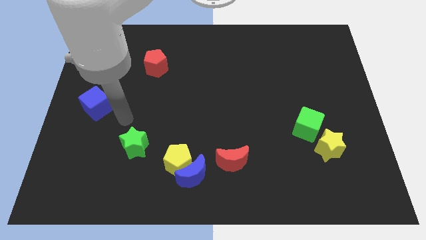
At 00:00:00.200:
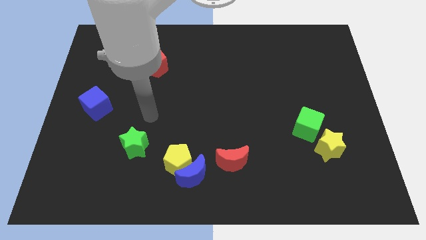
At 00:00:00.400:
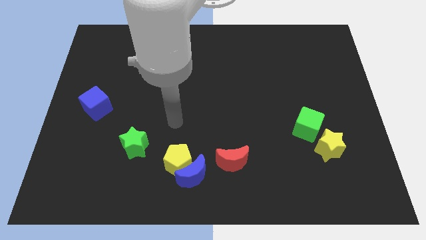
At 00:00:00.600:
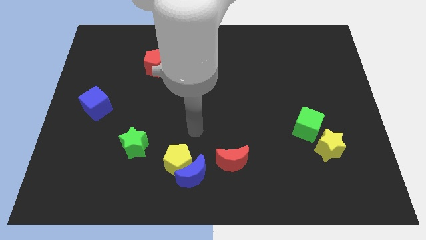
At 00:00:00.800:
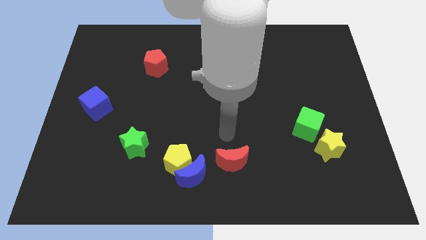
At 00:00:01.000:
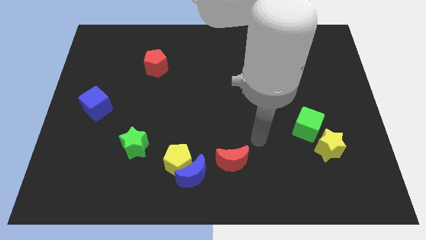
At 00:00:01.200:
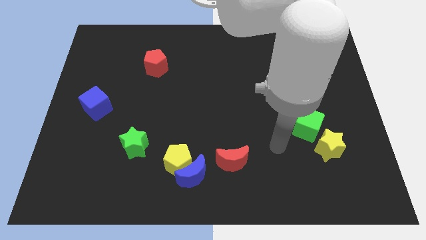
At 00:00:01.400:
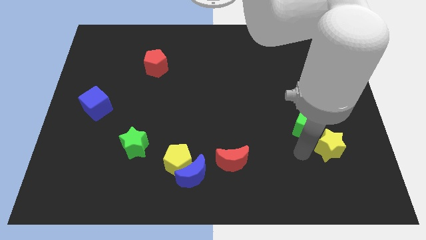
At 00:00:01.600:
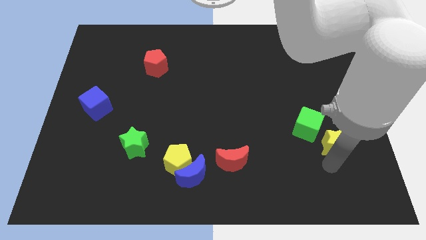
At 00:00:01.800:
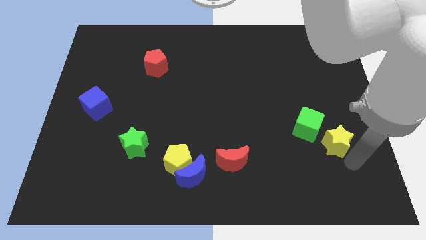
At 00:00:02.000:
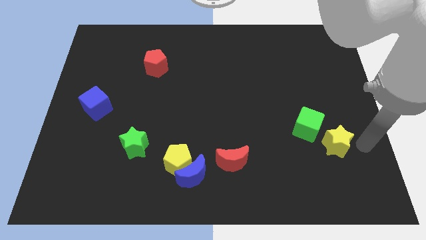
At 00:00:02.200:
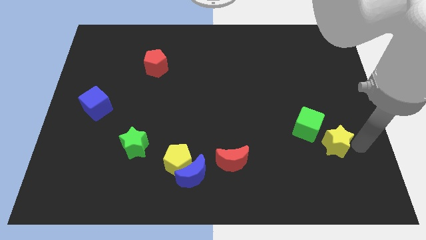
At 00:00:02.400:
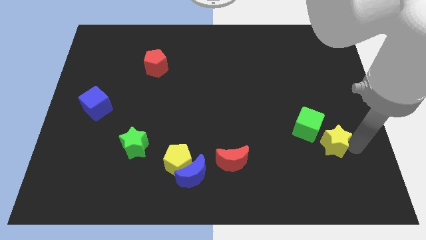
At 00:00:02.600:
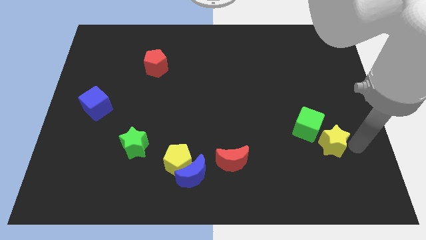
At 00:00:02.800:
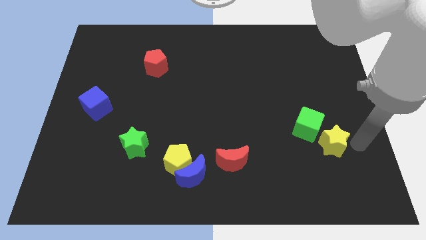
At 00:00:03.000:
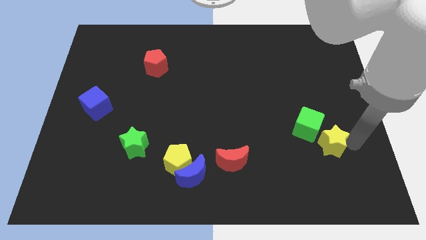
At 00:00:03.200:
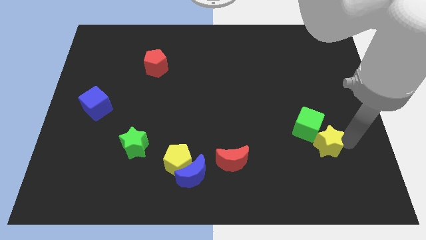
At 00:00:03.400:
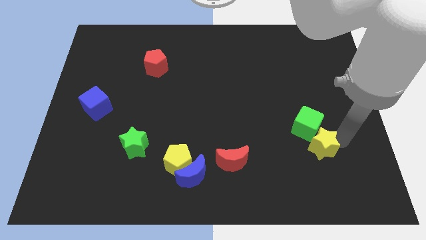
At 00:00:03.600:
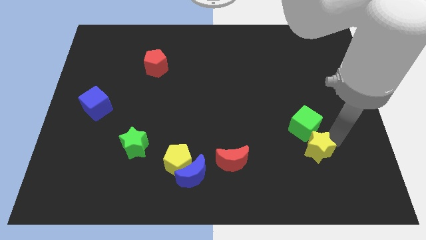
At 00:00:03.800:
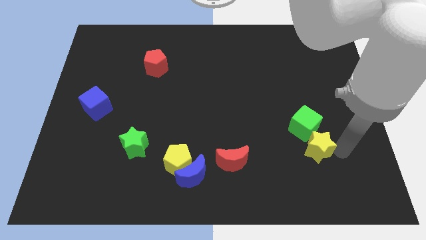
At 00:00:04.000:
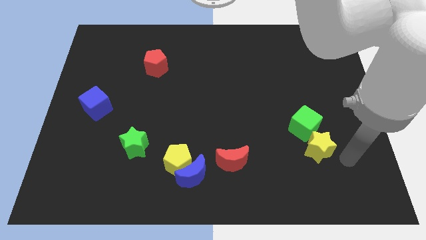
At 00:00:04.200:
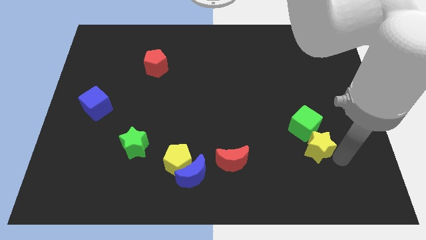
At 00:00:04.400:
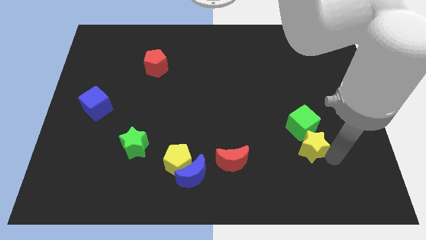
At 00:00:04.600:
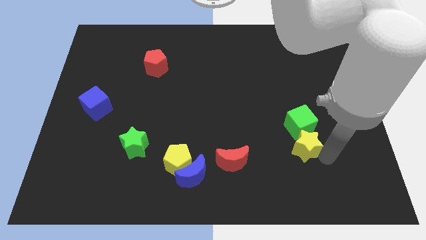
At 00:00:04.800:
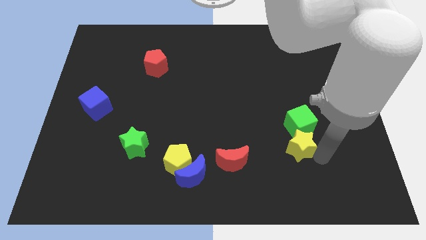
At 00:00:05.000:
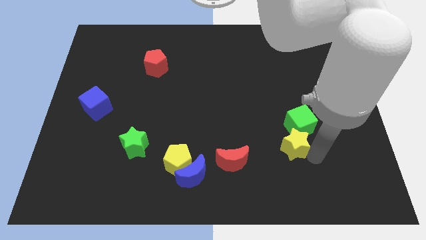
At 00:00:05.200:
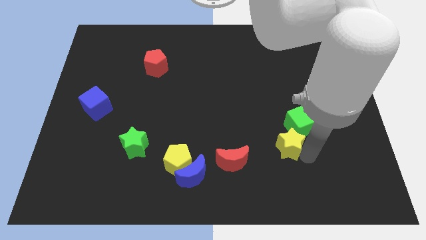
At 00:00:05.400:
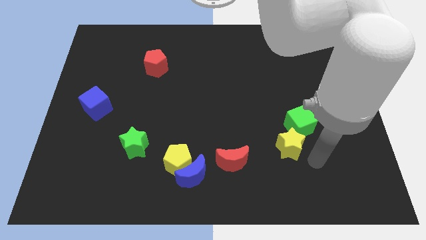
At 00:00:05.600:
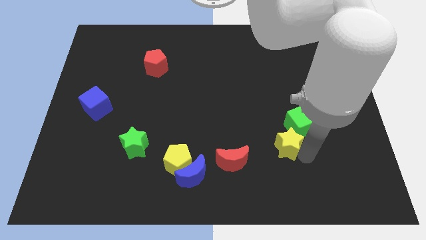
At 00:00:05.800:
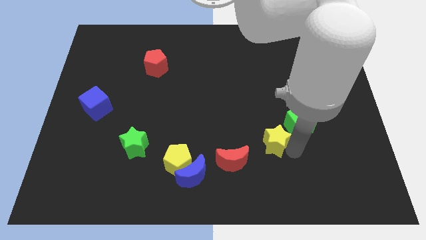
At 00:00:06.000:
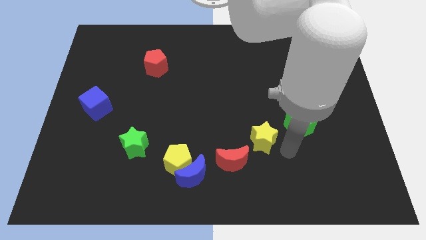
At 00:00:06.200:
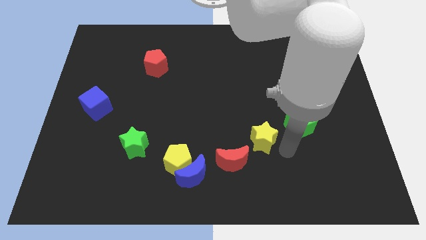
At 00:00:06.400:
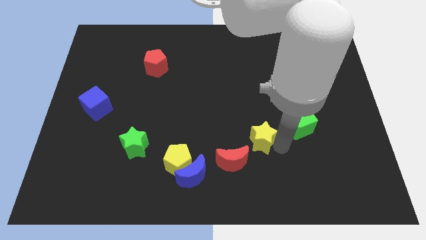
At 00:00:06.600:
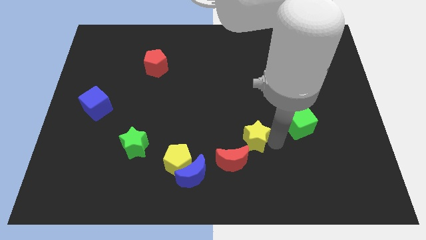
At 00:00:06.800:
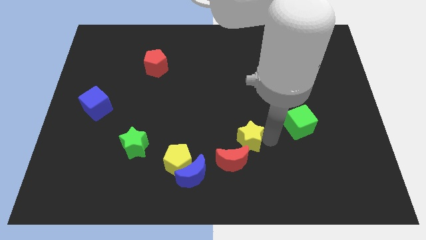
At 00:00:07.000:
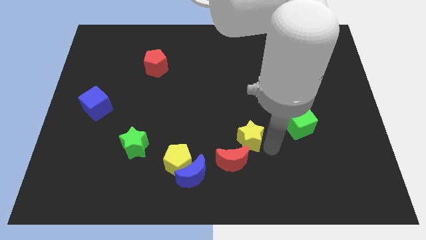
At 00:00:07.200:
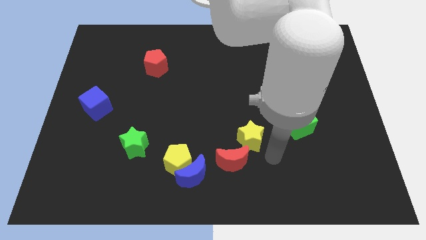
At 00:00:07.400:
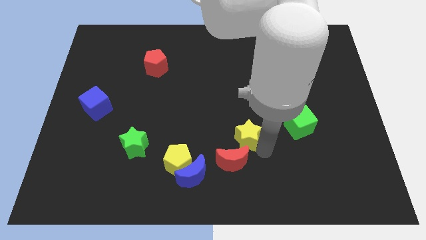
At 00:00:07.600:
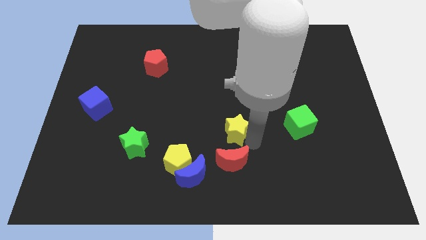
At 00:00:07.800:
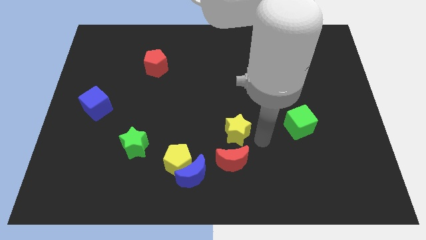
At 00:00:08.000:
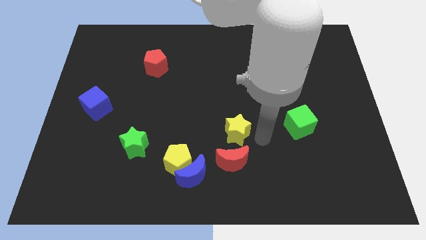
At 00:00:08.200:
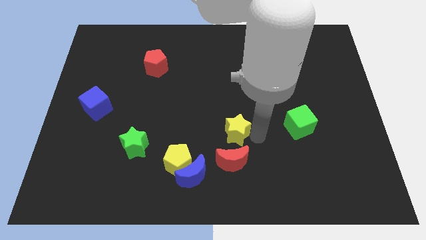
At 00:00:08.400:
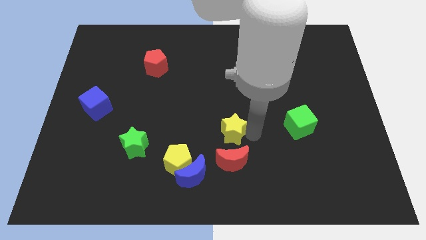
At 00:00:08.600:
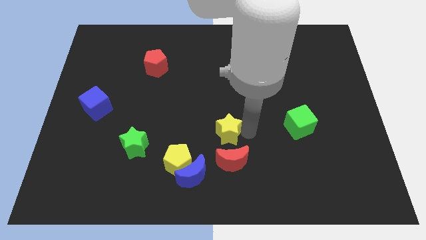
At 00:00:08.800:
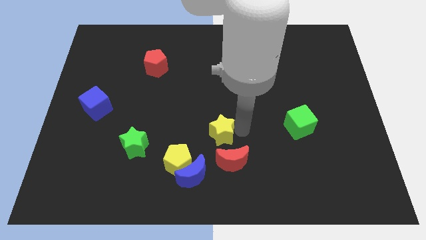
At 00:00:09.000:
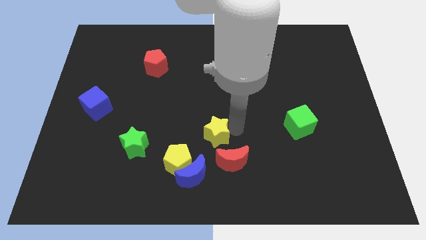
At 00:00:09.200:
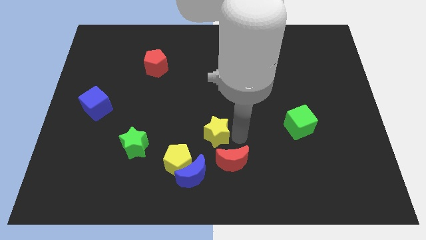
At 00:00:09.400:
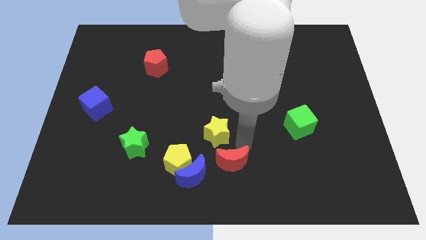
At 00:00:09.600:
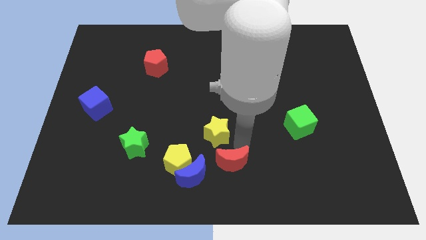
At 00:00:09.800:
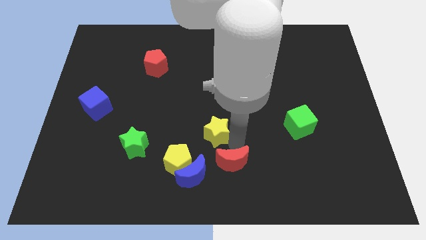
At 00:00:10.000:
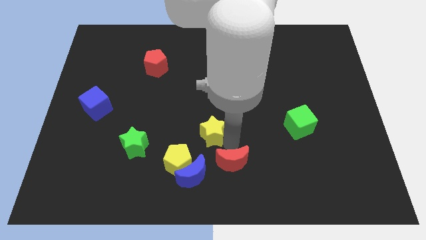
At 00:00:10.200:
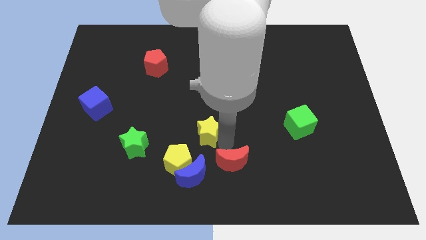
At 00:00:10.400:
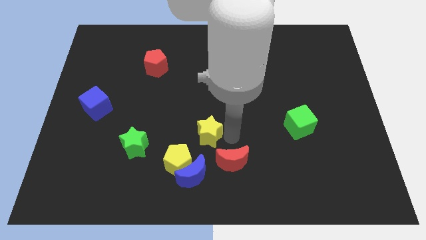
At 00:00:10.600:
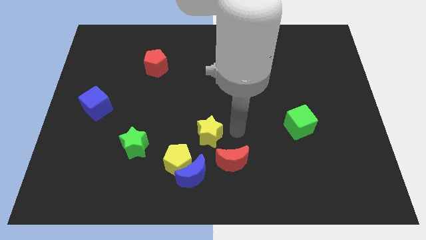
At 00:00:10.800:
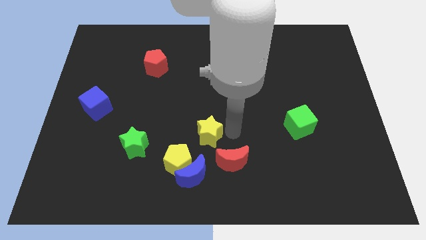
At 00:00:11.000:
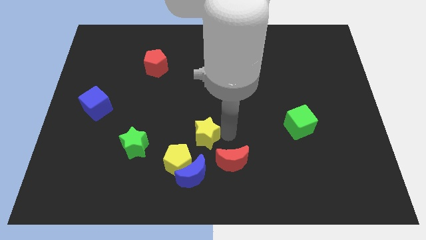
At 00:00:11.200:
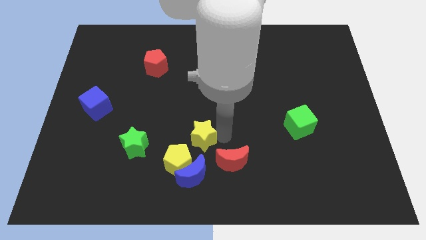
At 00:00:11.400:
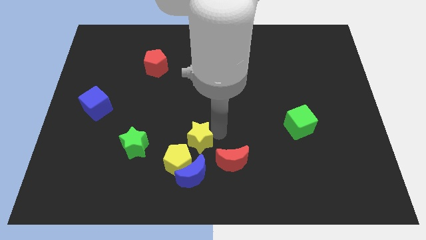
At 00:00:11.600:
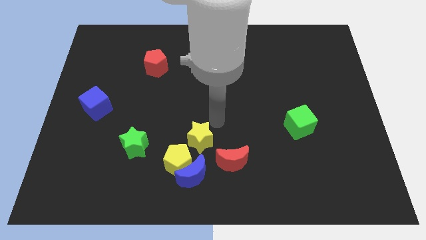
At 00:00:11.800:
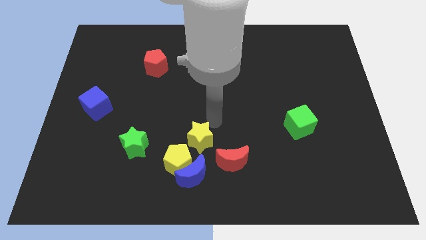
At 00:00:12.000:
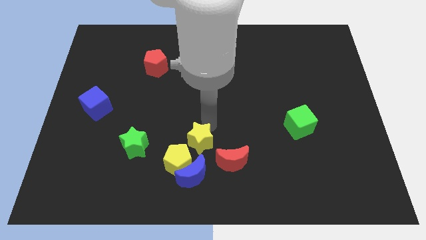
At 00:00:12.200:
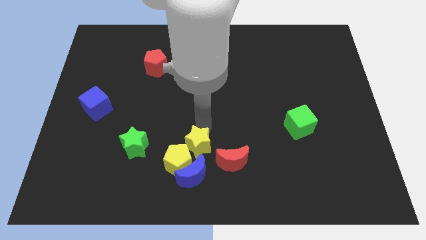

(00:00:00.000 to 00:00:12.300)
move the yellow star next to the yellow pentagon
